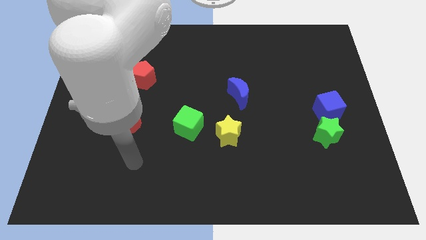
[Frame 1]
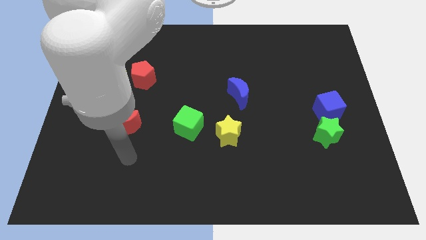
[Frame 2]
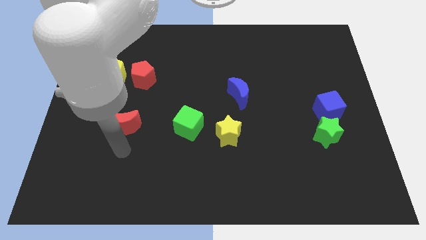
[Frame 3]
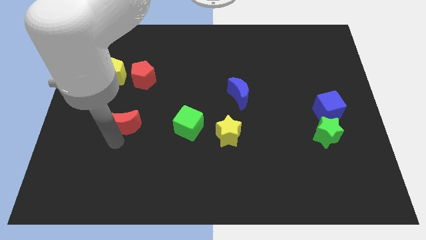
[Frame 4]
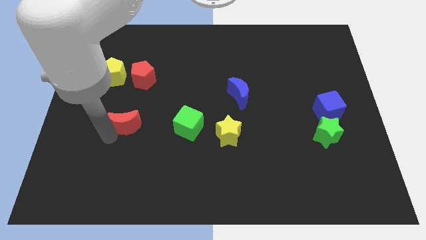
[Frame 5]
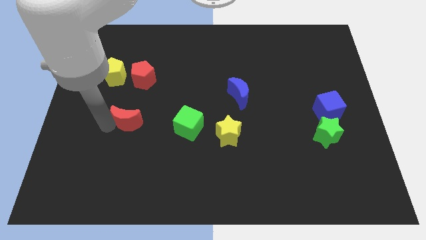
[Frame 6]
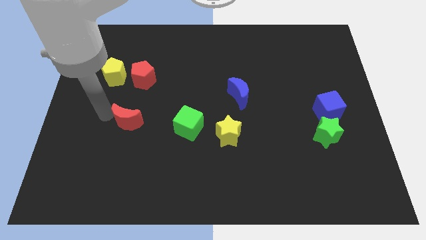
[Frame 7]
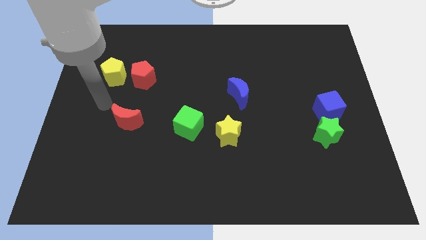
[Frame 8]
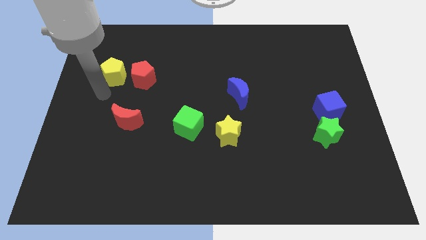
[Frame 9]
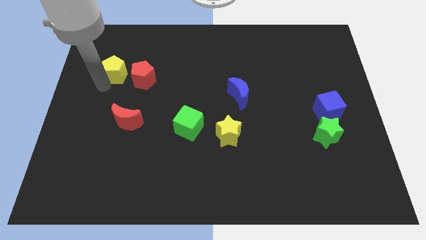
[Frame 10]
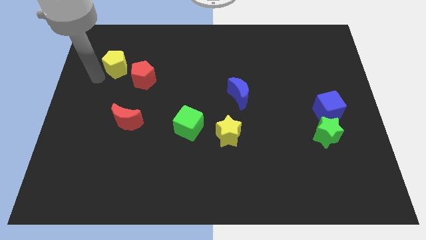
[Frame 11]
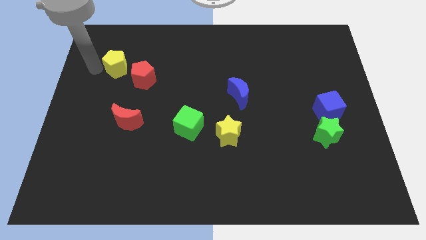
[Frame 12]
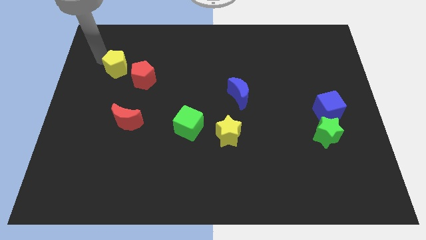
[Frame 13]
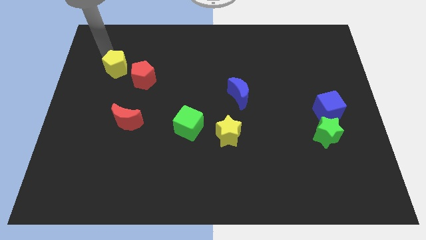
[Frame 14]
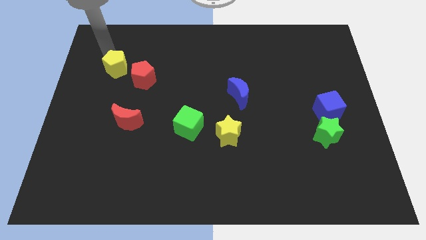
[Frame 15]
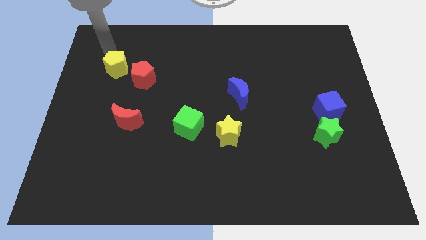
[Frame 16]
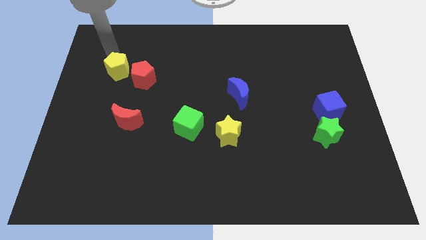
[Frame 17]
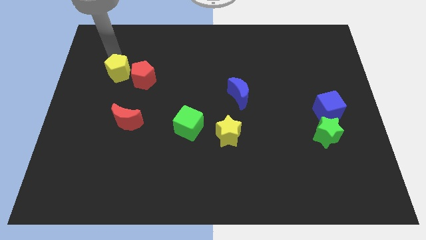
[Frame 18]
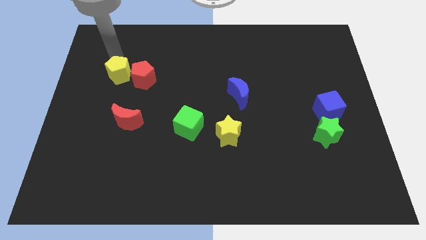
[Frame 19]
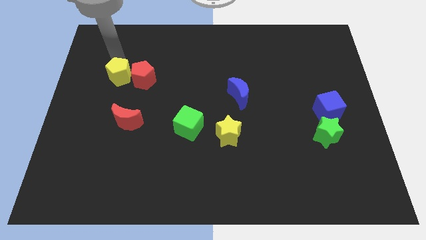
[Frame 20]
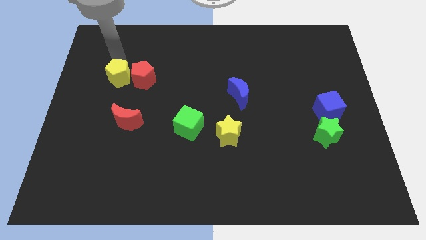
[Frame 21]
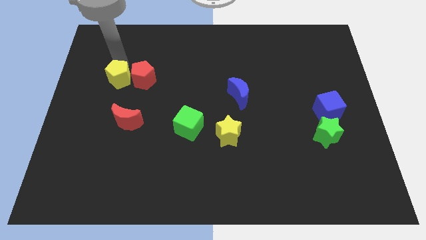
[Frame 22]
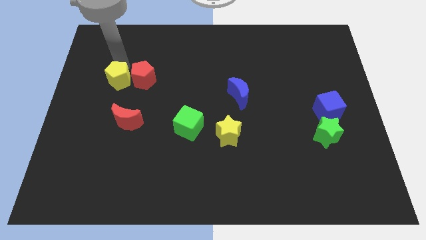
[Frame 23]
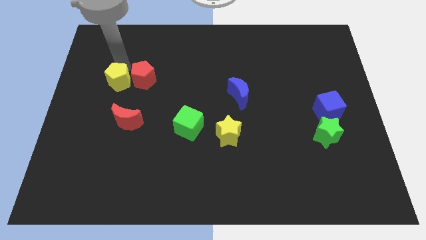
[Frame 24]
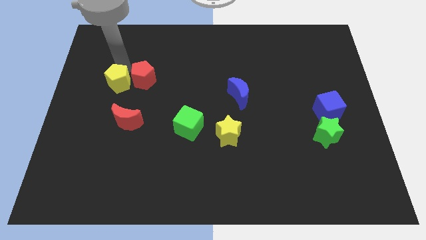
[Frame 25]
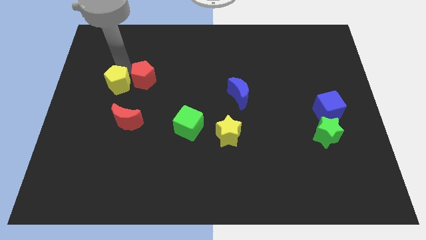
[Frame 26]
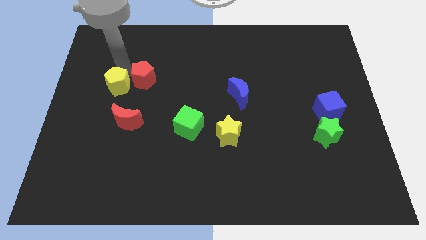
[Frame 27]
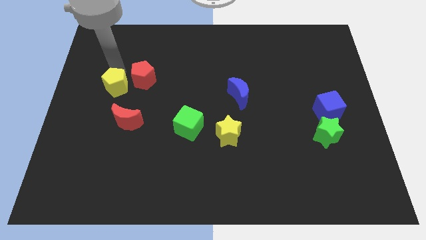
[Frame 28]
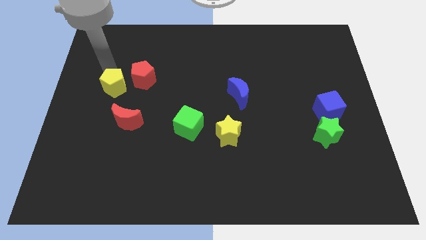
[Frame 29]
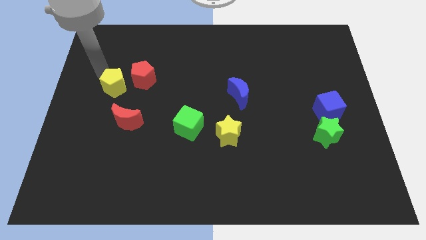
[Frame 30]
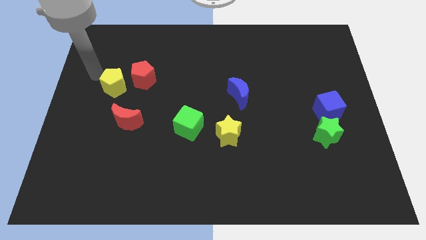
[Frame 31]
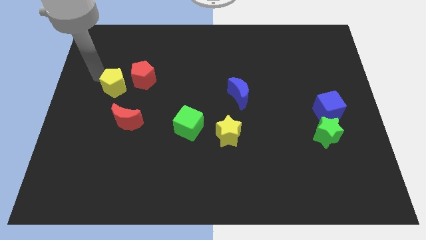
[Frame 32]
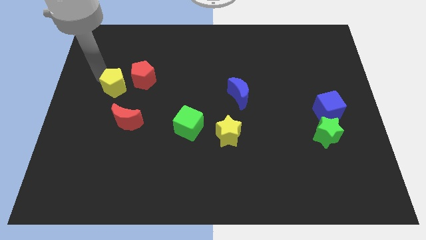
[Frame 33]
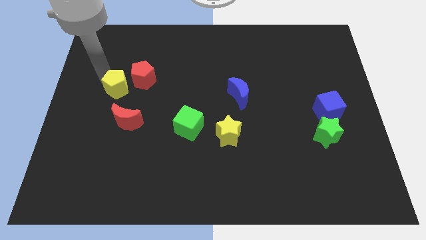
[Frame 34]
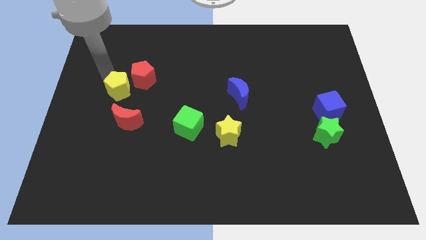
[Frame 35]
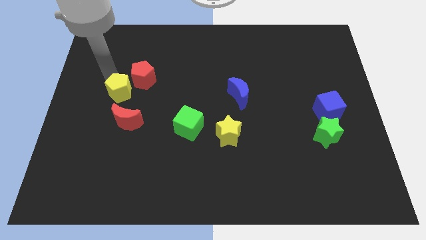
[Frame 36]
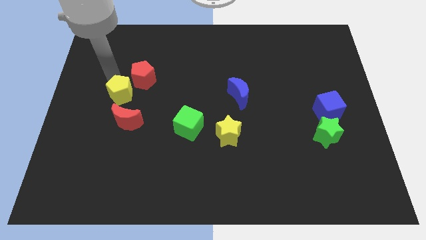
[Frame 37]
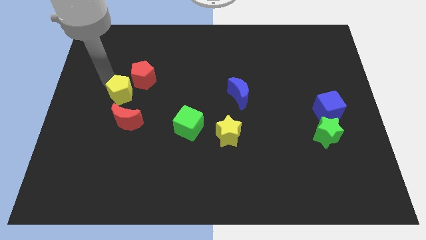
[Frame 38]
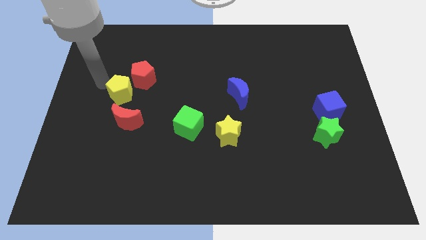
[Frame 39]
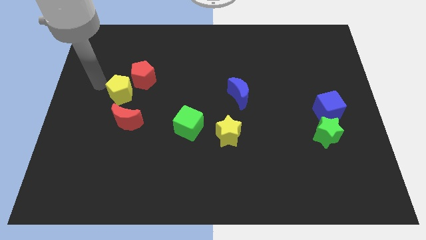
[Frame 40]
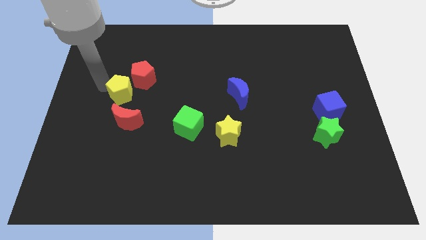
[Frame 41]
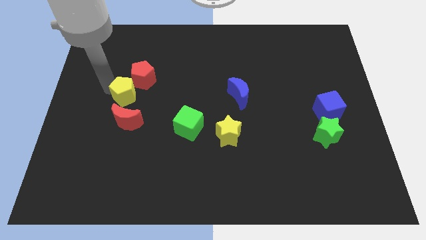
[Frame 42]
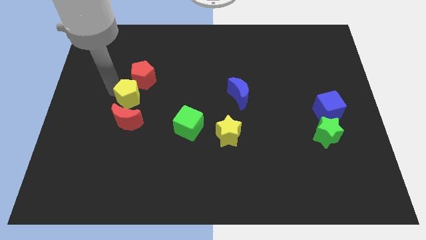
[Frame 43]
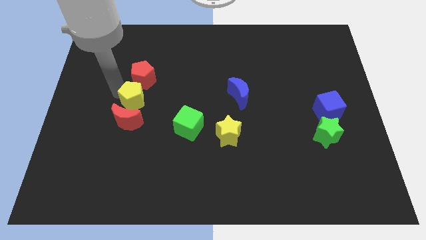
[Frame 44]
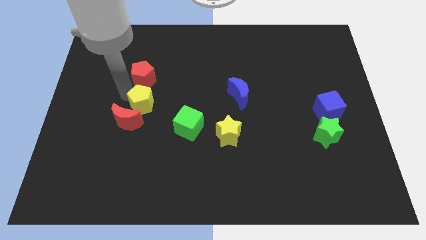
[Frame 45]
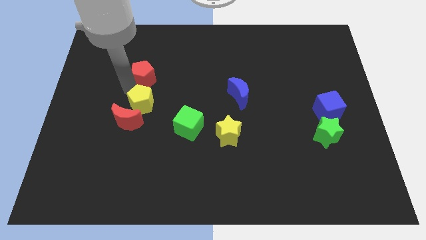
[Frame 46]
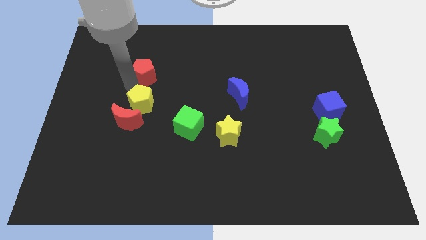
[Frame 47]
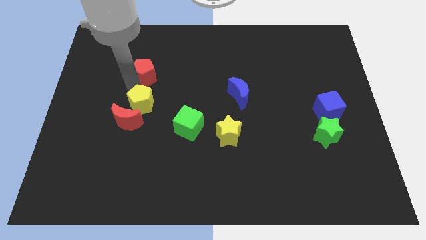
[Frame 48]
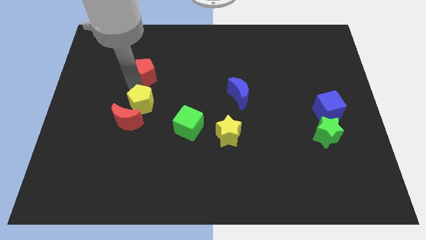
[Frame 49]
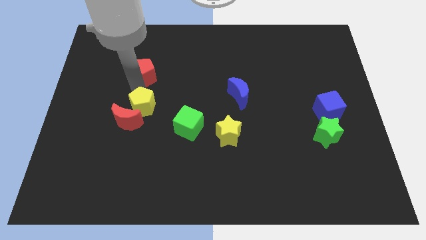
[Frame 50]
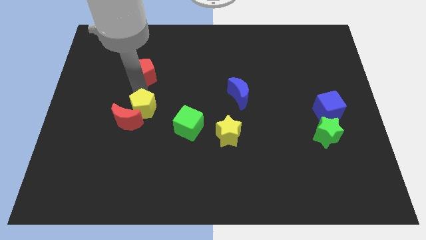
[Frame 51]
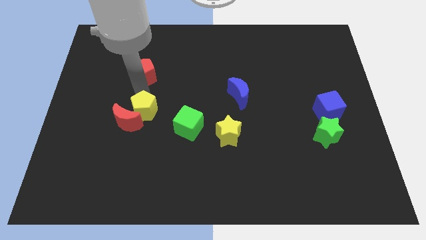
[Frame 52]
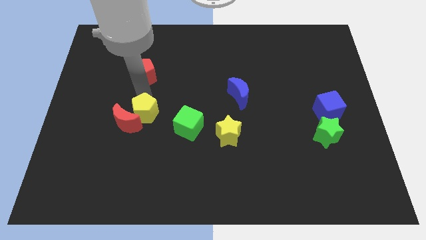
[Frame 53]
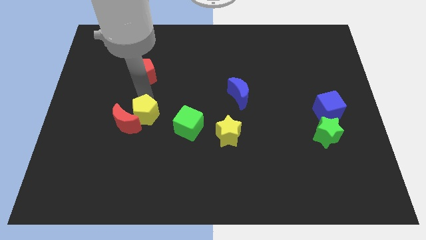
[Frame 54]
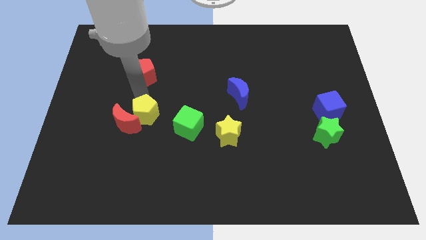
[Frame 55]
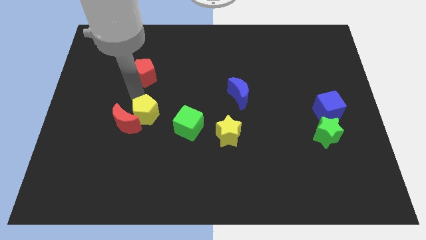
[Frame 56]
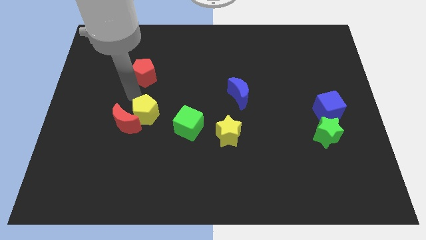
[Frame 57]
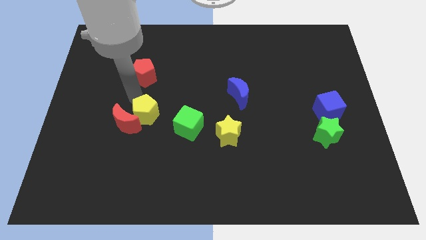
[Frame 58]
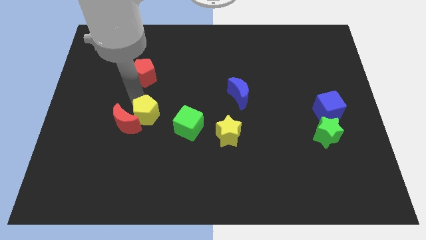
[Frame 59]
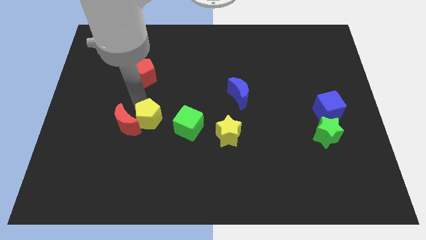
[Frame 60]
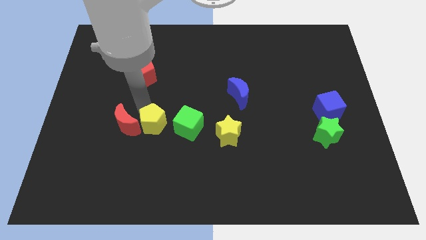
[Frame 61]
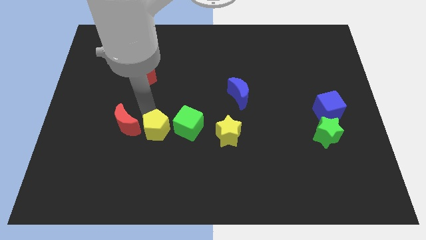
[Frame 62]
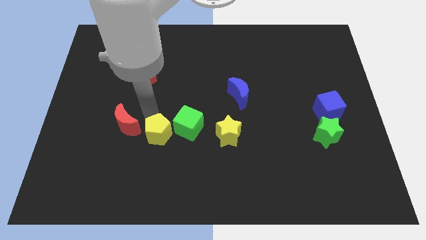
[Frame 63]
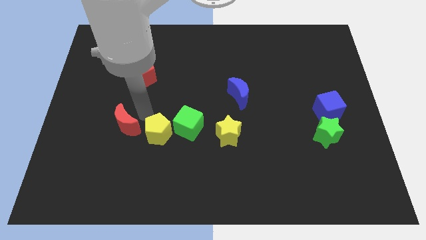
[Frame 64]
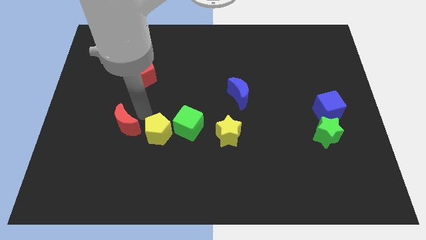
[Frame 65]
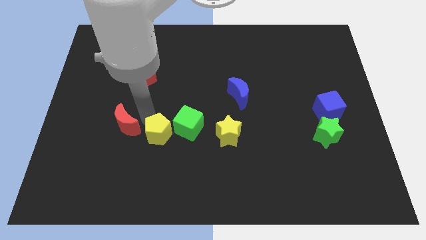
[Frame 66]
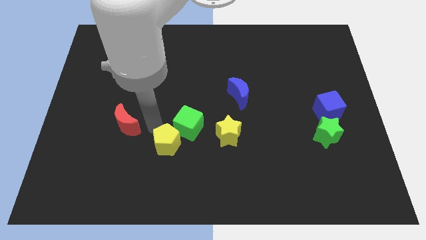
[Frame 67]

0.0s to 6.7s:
put the yellow pentagon to the bottom side of the green cube

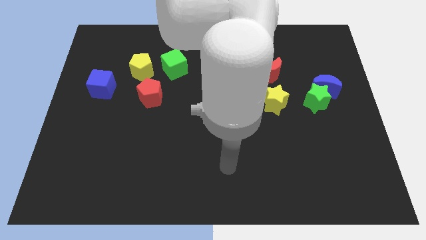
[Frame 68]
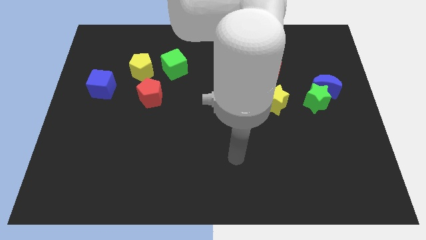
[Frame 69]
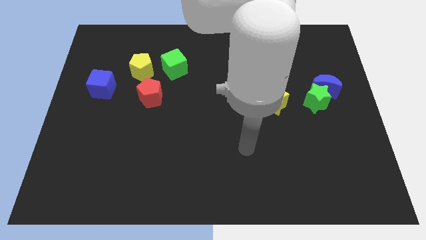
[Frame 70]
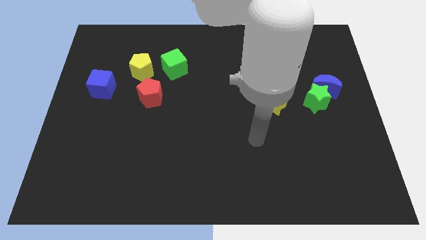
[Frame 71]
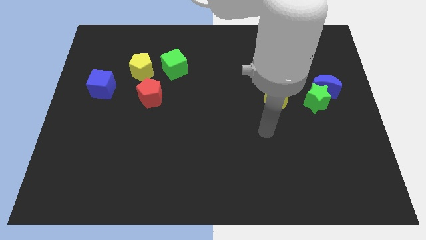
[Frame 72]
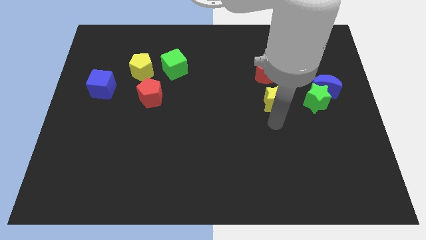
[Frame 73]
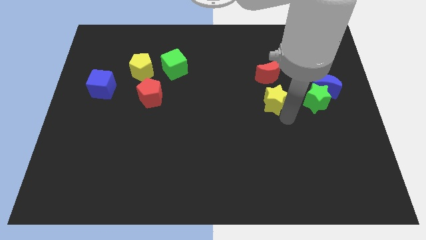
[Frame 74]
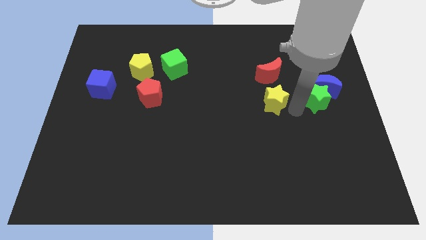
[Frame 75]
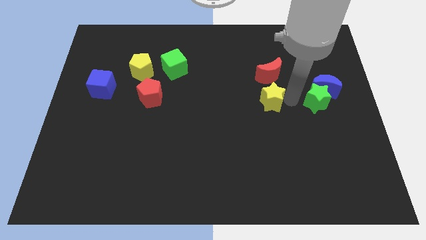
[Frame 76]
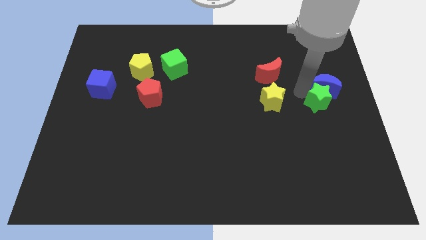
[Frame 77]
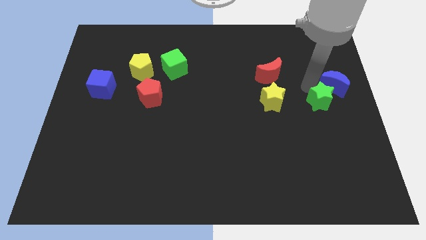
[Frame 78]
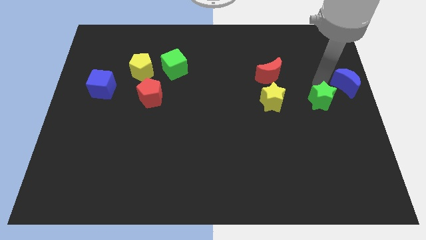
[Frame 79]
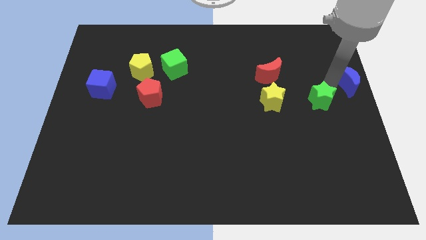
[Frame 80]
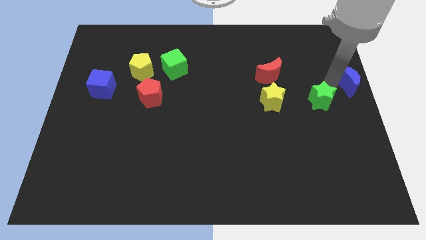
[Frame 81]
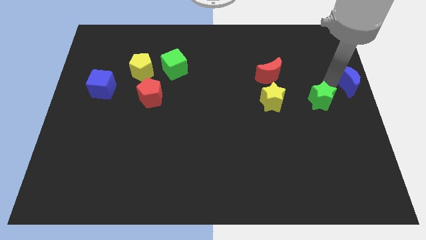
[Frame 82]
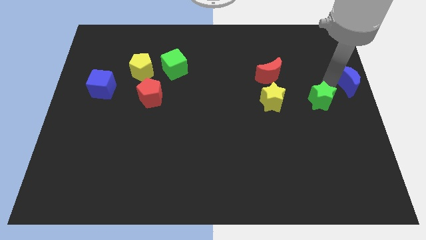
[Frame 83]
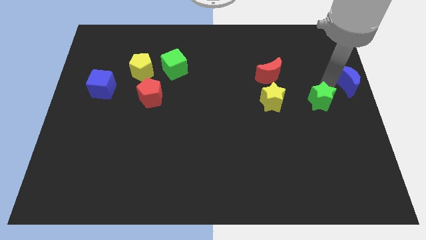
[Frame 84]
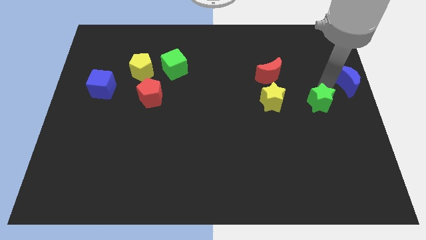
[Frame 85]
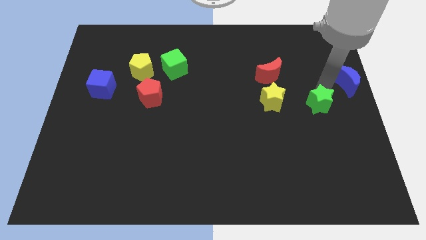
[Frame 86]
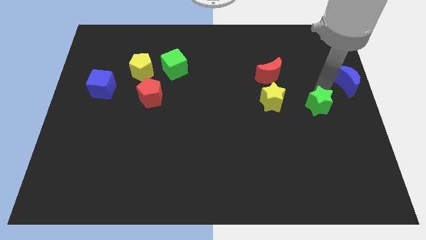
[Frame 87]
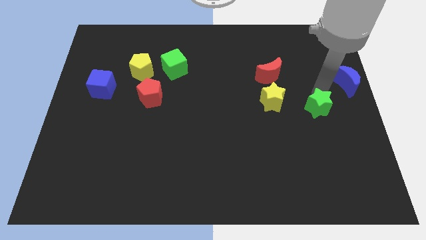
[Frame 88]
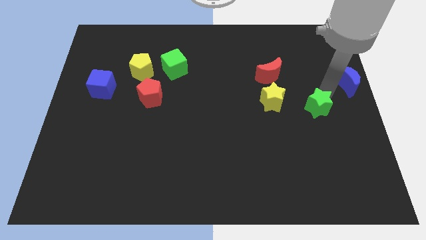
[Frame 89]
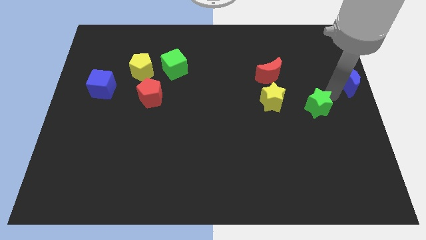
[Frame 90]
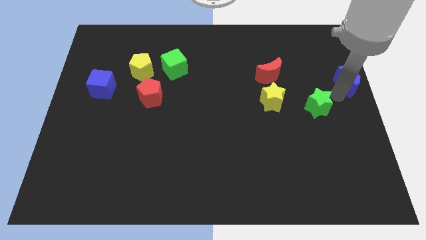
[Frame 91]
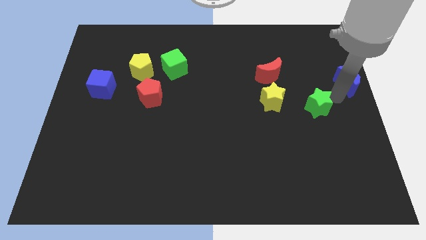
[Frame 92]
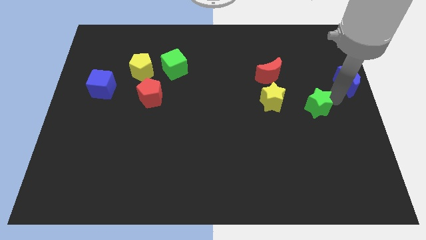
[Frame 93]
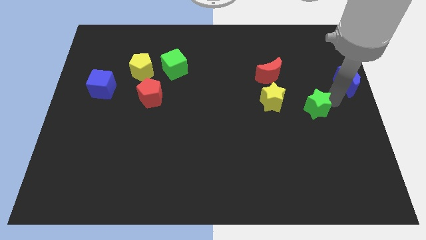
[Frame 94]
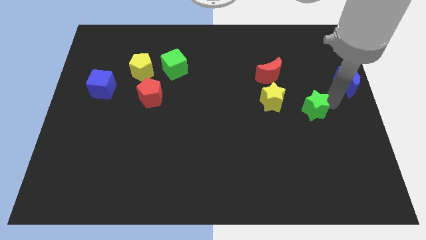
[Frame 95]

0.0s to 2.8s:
put the green star diagonally down and to the right of the yellow star
